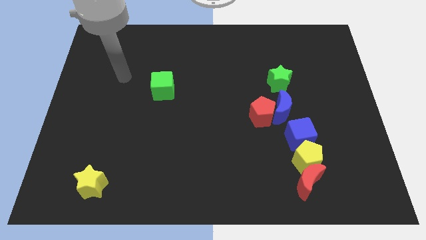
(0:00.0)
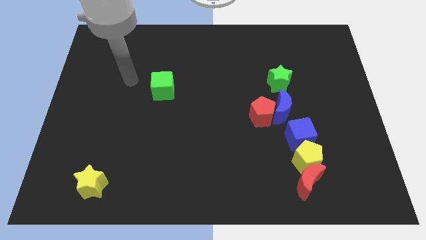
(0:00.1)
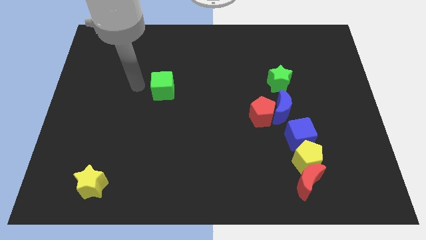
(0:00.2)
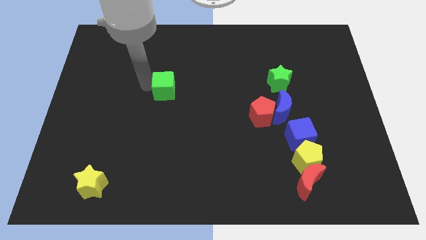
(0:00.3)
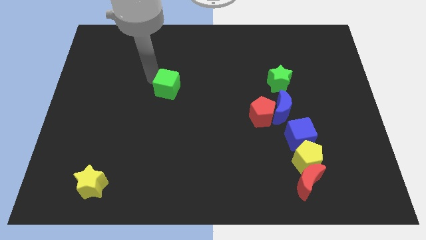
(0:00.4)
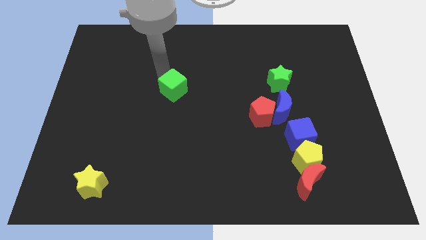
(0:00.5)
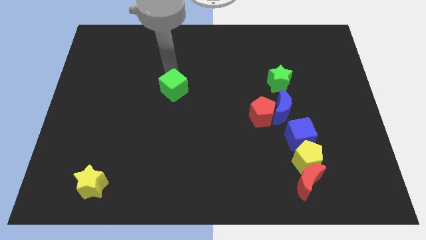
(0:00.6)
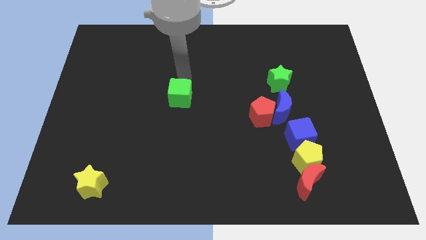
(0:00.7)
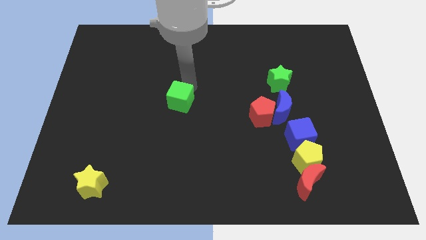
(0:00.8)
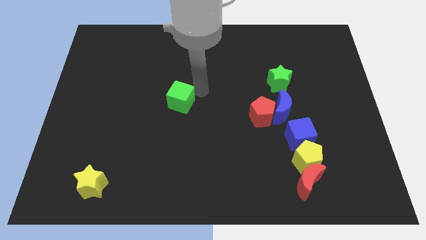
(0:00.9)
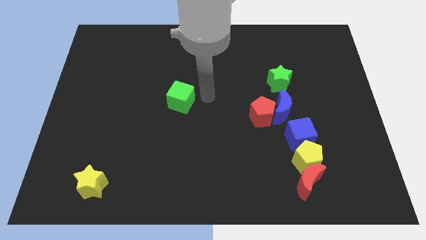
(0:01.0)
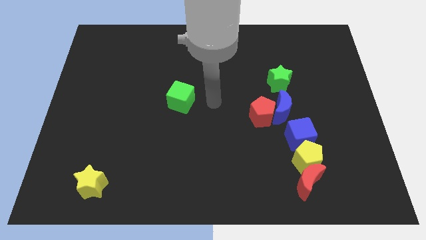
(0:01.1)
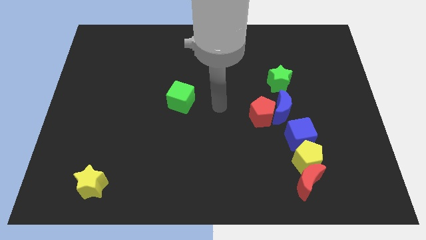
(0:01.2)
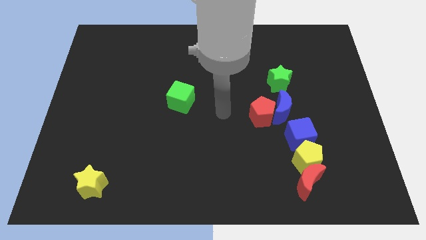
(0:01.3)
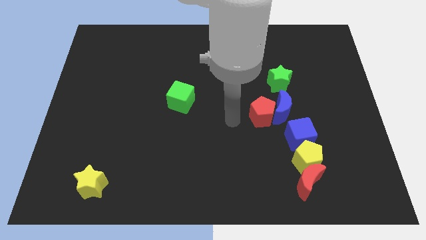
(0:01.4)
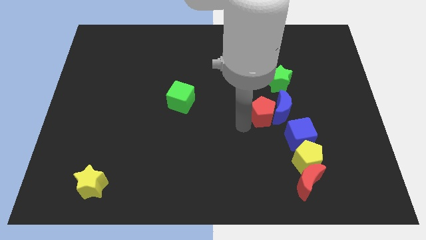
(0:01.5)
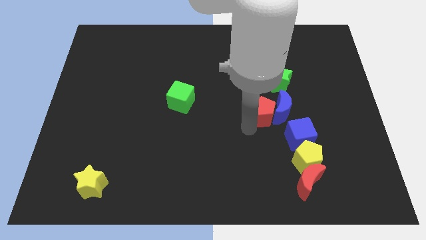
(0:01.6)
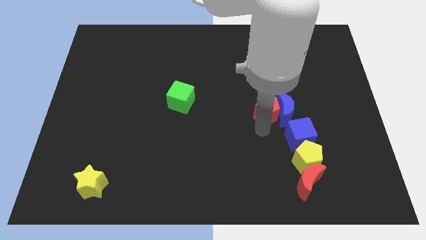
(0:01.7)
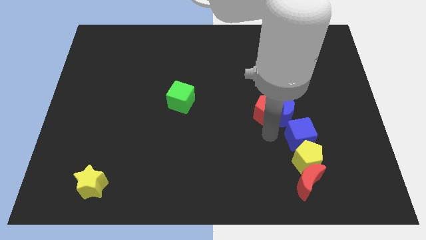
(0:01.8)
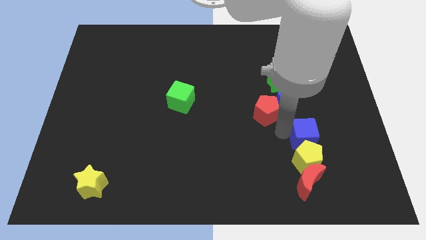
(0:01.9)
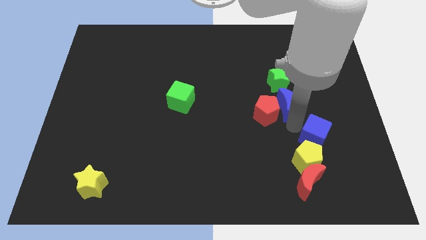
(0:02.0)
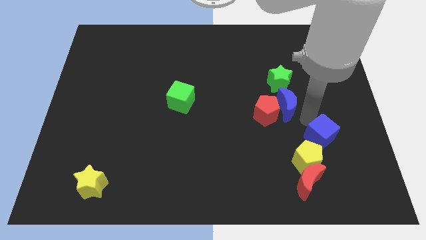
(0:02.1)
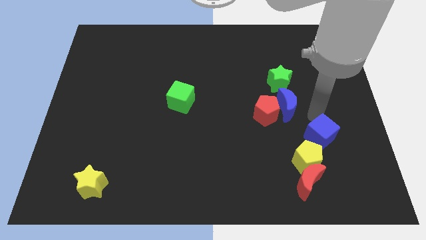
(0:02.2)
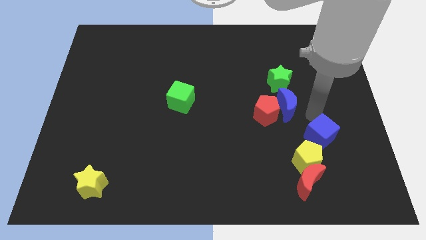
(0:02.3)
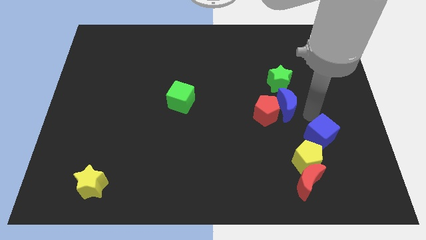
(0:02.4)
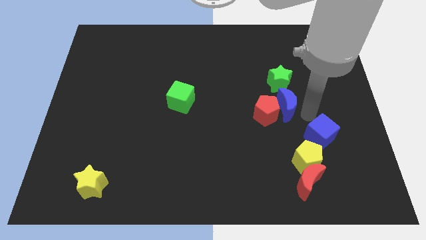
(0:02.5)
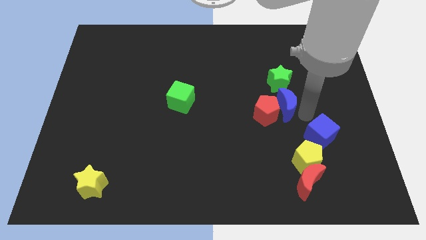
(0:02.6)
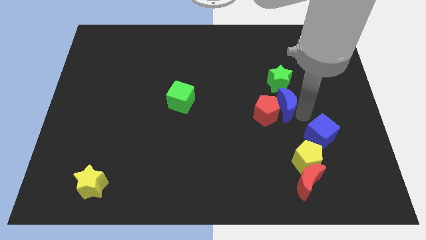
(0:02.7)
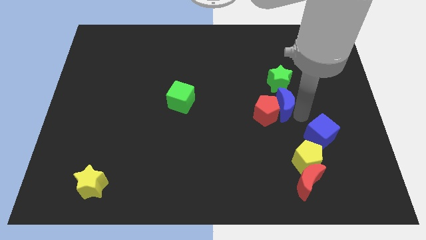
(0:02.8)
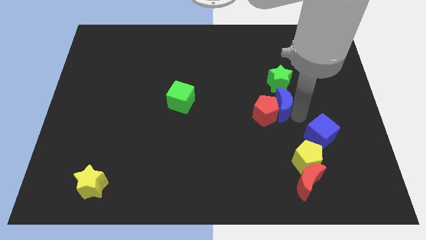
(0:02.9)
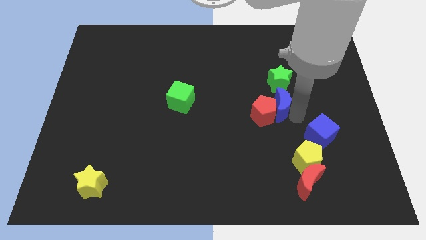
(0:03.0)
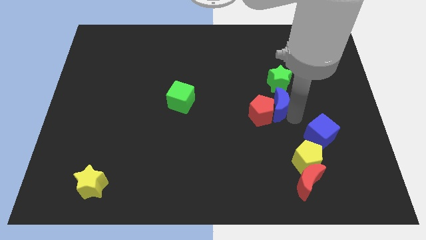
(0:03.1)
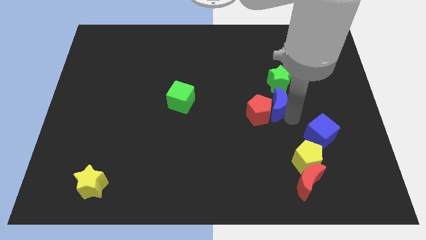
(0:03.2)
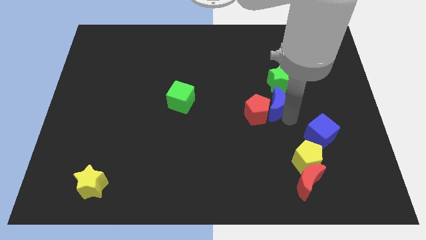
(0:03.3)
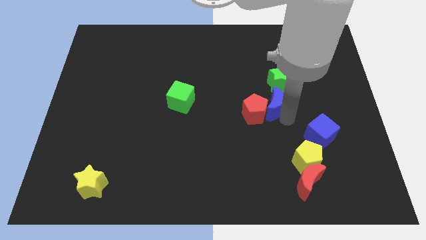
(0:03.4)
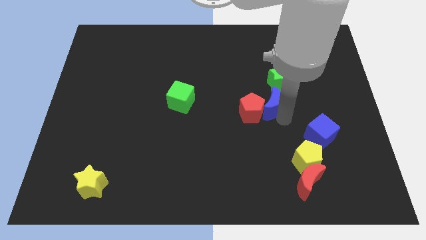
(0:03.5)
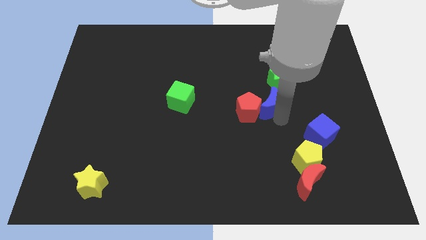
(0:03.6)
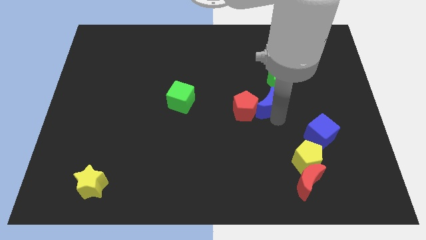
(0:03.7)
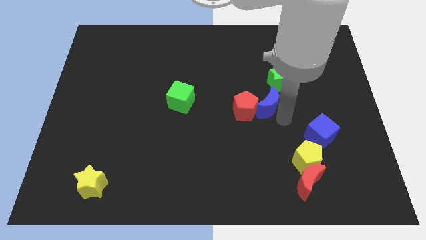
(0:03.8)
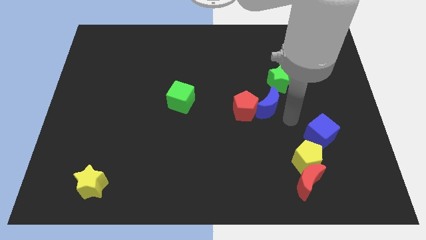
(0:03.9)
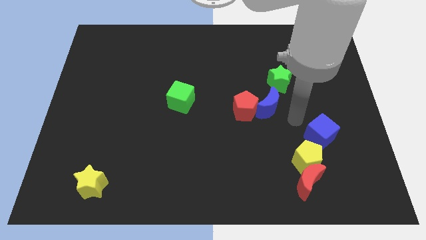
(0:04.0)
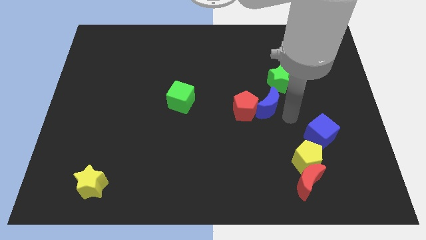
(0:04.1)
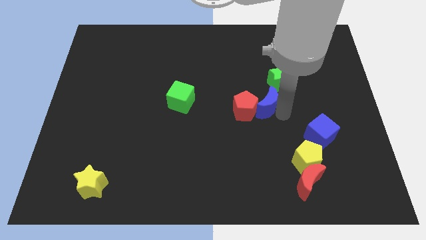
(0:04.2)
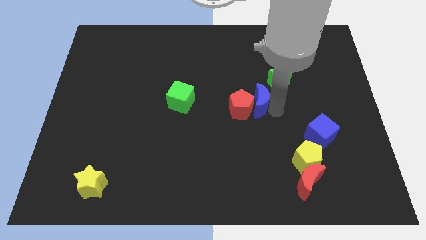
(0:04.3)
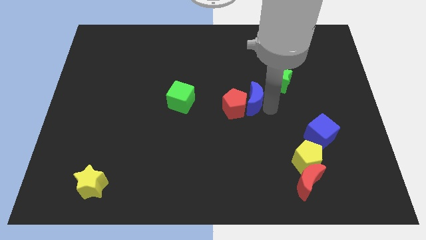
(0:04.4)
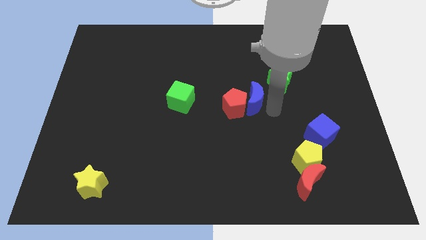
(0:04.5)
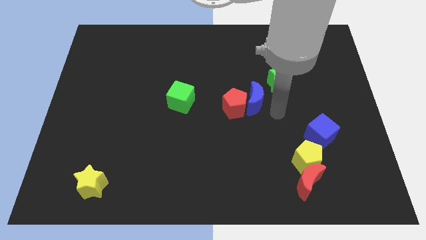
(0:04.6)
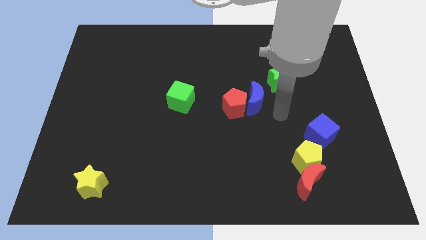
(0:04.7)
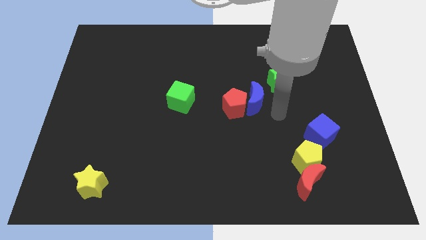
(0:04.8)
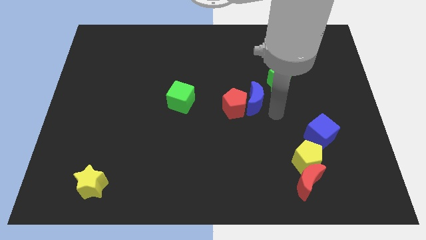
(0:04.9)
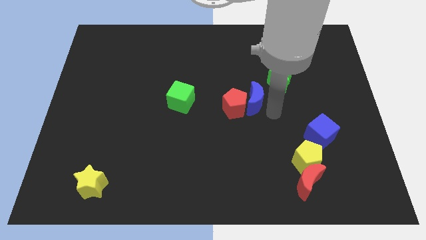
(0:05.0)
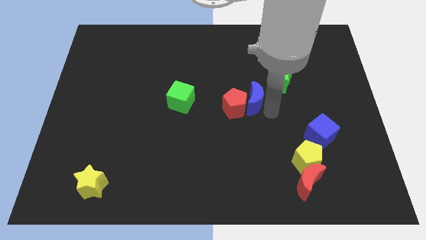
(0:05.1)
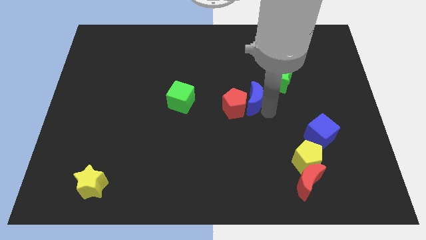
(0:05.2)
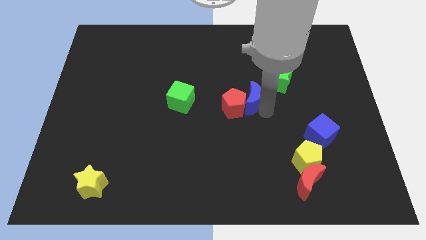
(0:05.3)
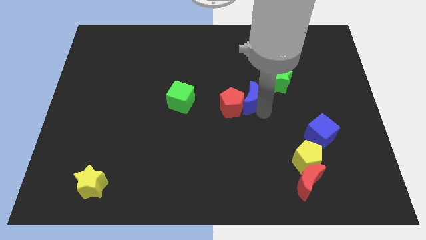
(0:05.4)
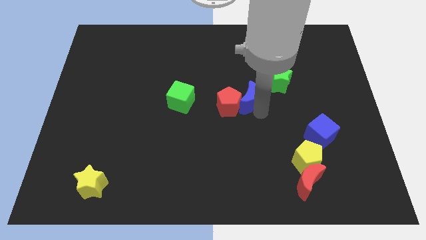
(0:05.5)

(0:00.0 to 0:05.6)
move the blue moon to the right side of the green cube

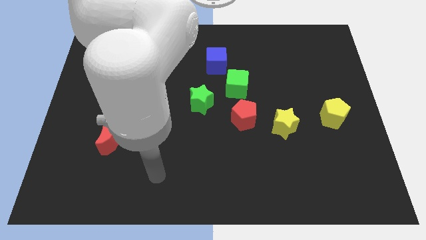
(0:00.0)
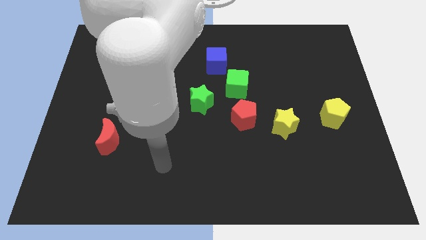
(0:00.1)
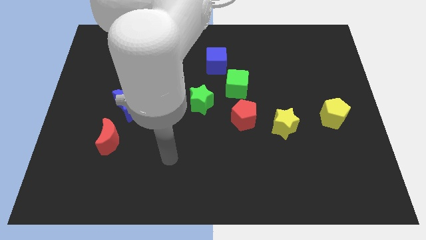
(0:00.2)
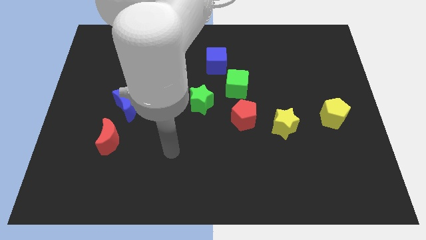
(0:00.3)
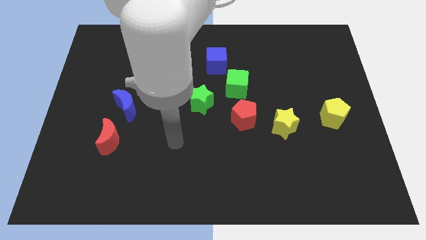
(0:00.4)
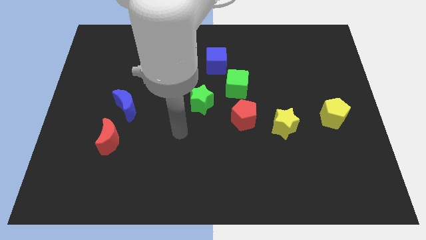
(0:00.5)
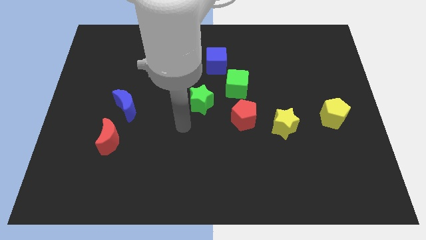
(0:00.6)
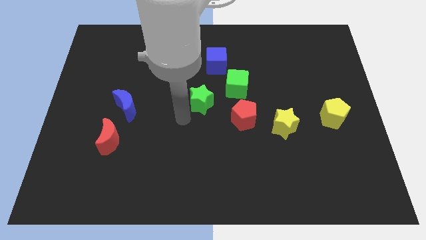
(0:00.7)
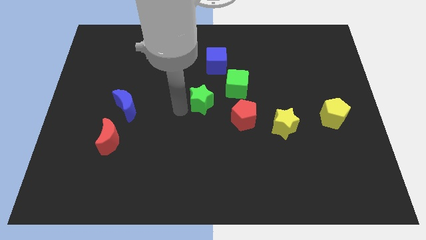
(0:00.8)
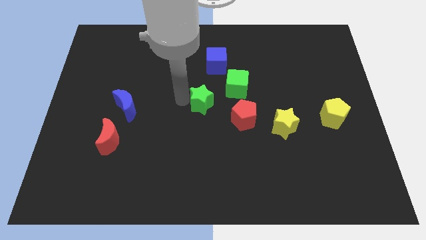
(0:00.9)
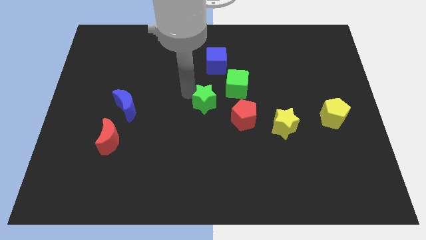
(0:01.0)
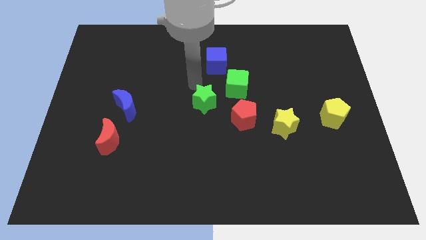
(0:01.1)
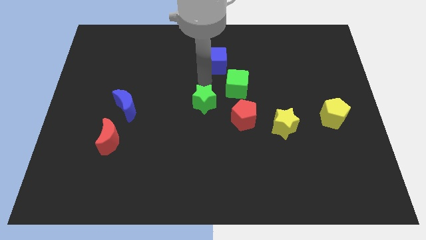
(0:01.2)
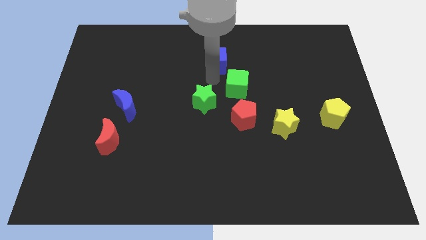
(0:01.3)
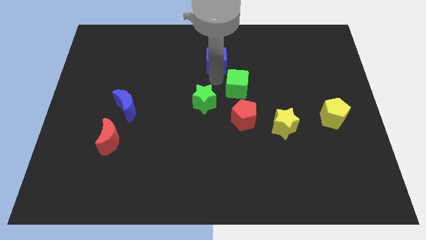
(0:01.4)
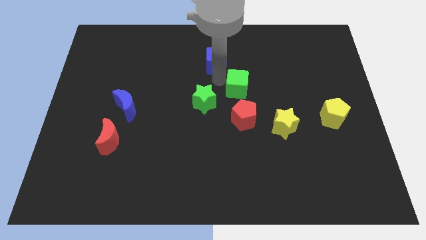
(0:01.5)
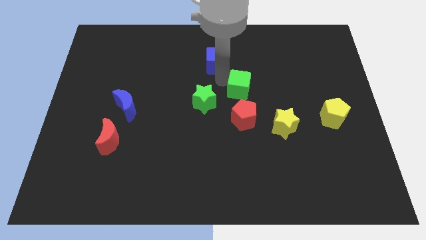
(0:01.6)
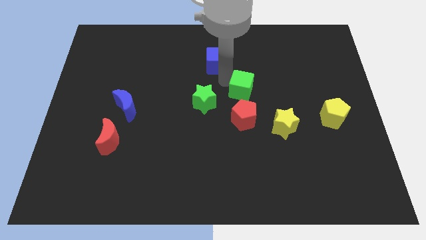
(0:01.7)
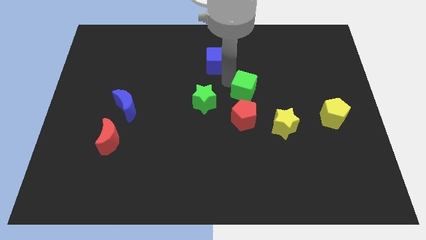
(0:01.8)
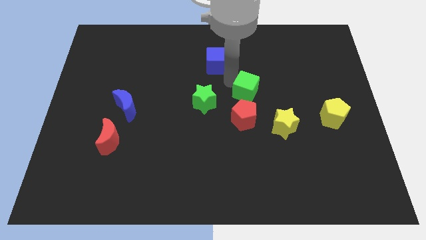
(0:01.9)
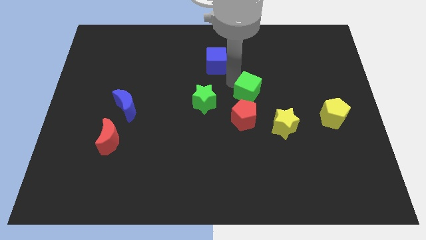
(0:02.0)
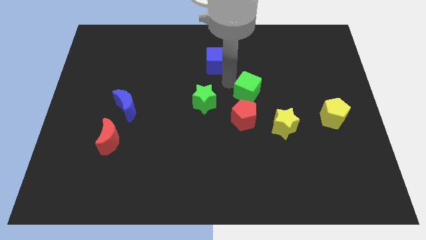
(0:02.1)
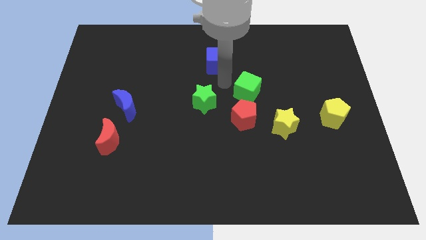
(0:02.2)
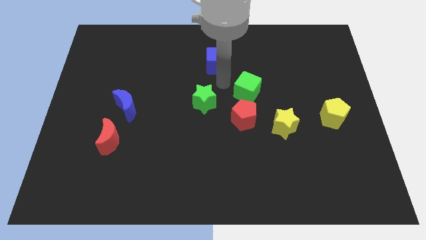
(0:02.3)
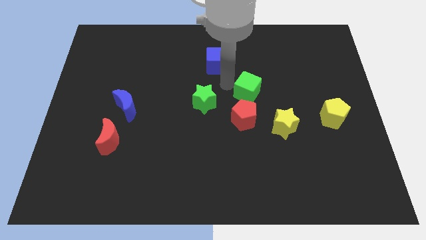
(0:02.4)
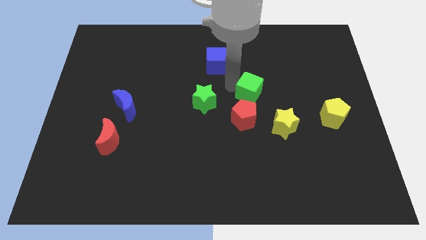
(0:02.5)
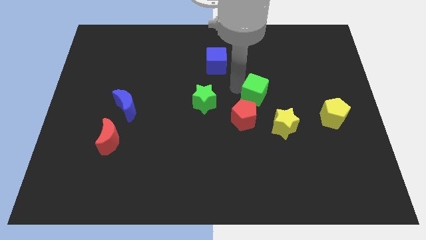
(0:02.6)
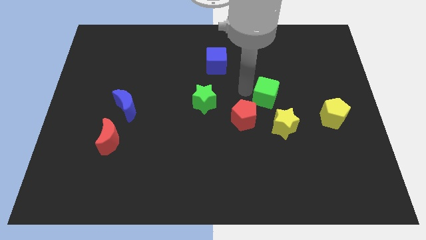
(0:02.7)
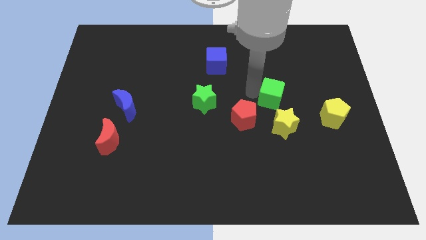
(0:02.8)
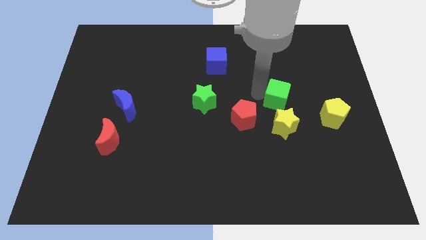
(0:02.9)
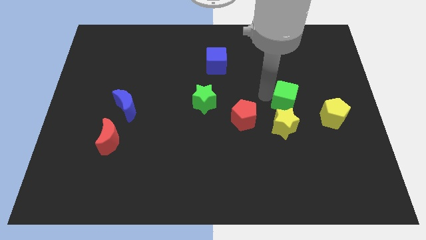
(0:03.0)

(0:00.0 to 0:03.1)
push the green cube diagonally up and to the right of the yellow star
